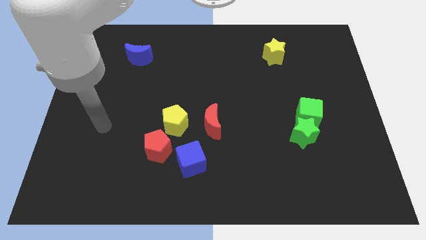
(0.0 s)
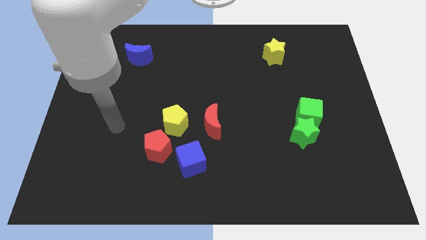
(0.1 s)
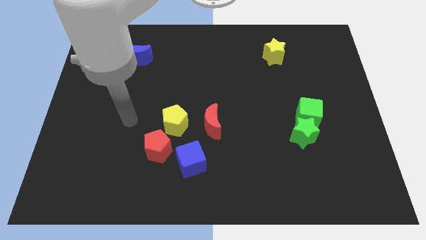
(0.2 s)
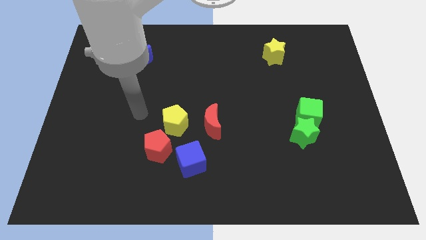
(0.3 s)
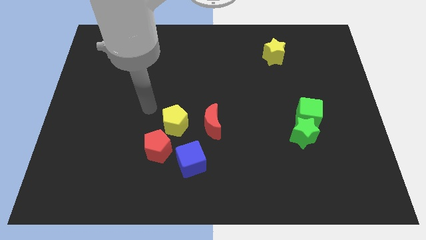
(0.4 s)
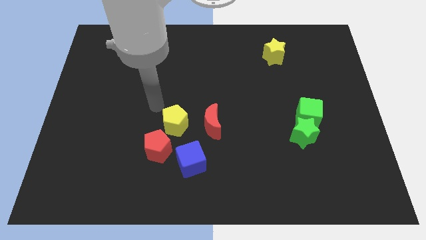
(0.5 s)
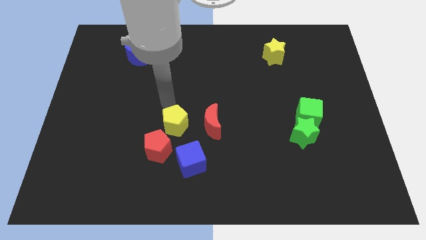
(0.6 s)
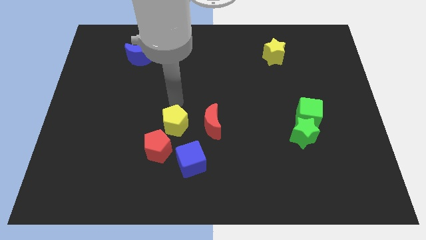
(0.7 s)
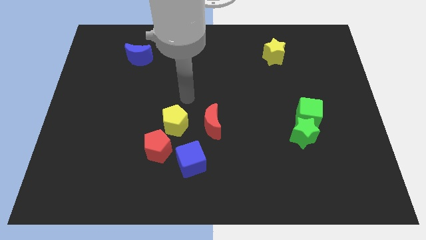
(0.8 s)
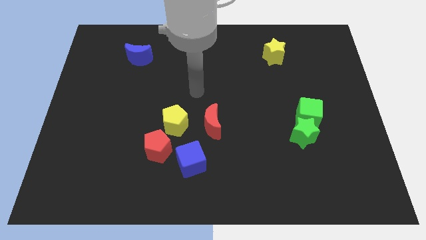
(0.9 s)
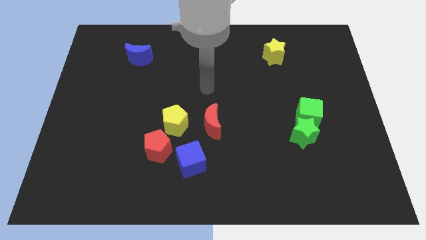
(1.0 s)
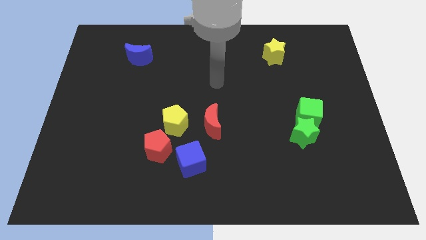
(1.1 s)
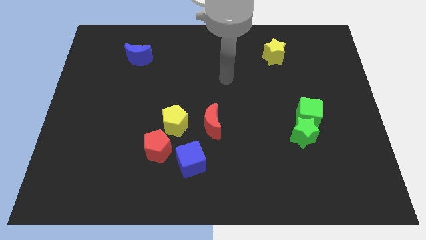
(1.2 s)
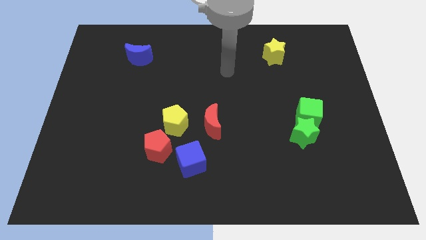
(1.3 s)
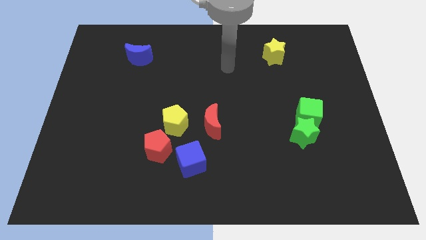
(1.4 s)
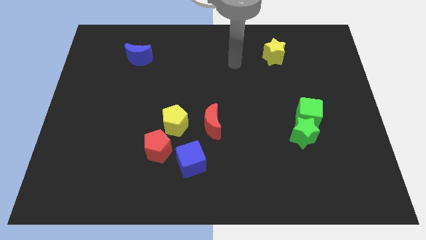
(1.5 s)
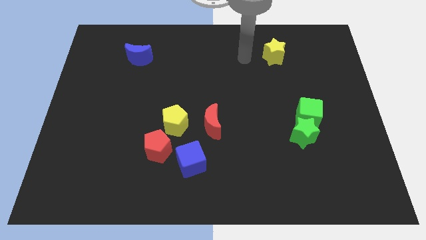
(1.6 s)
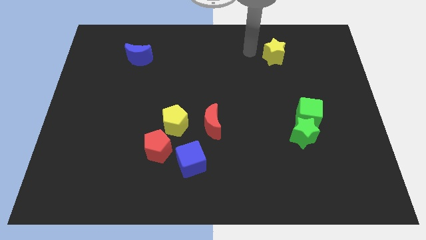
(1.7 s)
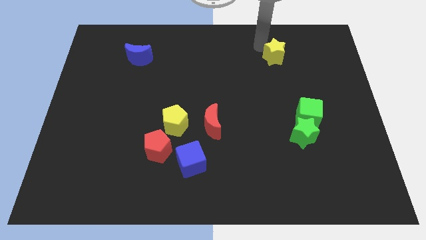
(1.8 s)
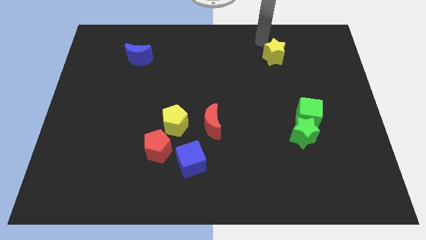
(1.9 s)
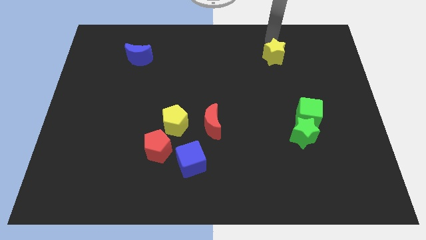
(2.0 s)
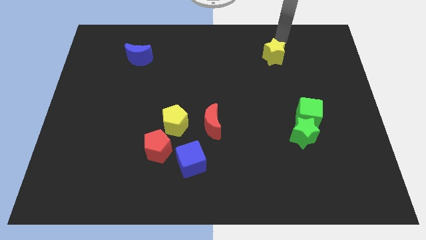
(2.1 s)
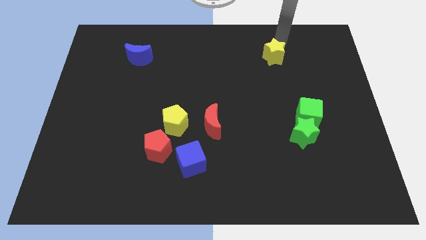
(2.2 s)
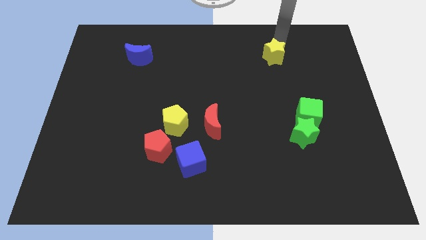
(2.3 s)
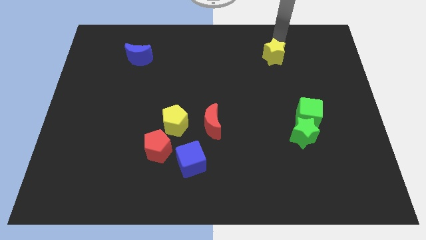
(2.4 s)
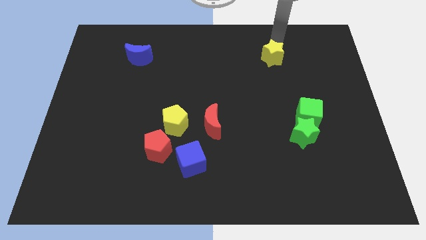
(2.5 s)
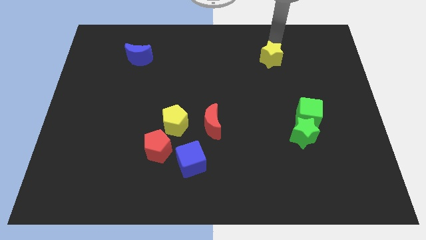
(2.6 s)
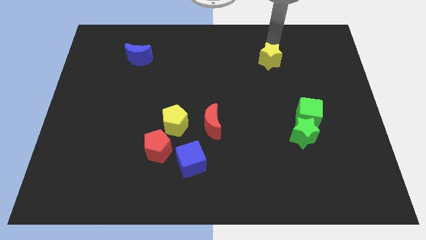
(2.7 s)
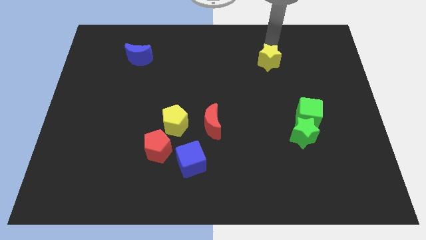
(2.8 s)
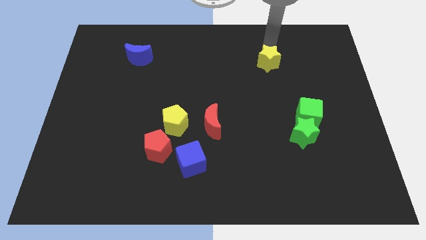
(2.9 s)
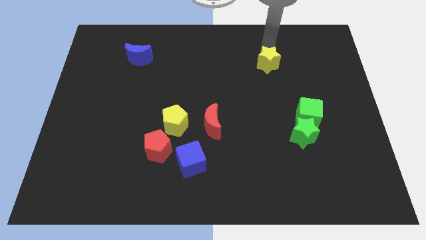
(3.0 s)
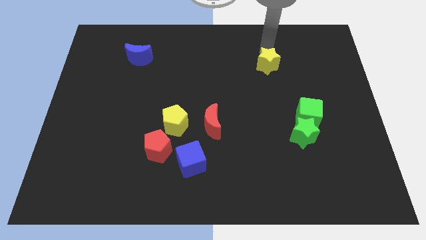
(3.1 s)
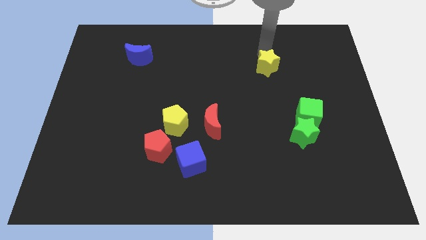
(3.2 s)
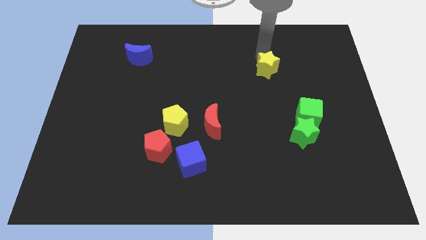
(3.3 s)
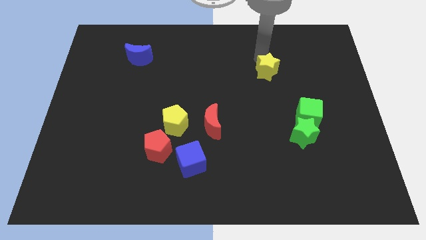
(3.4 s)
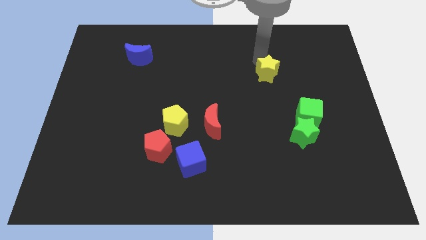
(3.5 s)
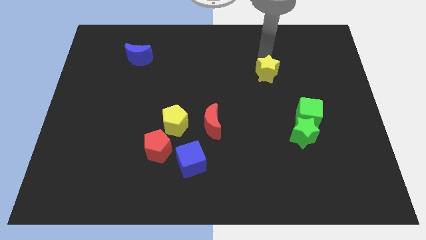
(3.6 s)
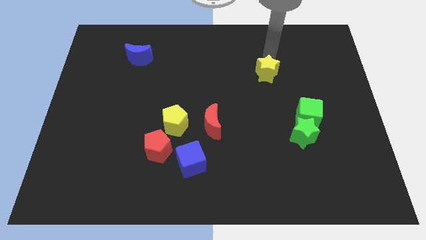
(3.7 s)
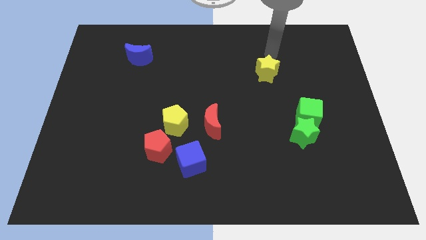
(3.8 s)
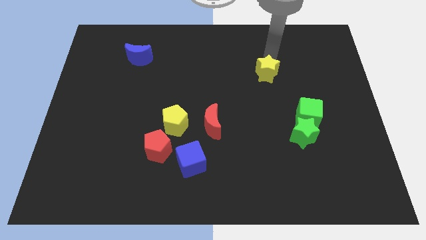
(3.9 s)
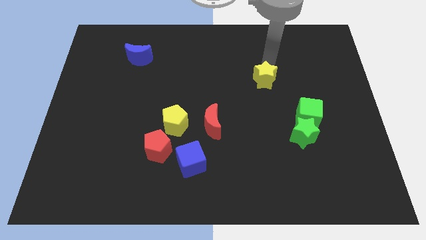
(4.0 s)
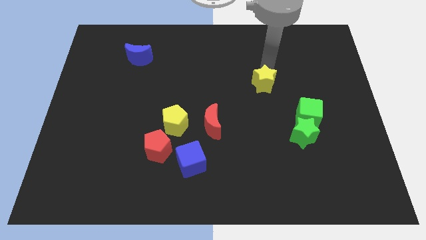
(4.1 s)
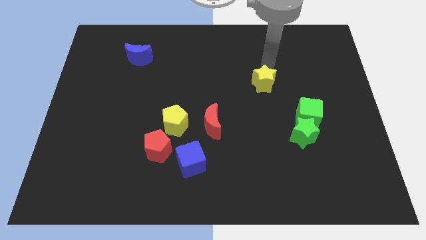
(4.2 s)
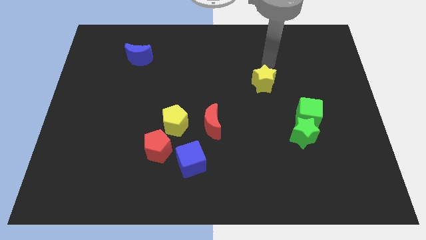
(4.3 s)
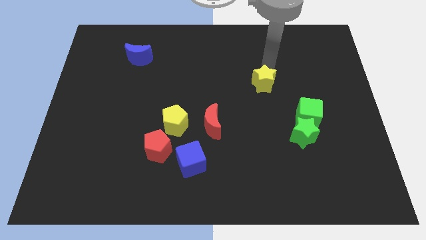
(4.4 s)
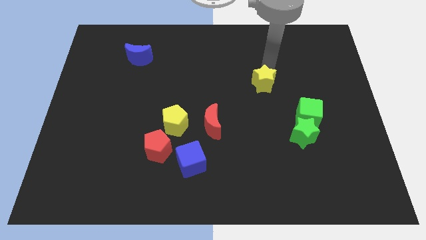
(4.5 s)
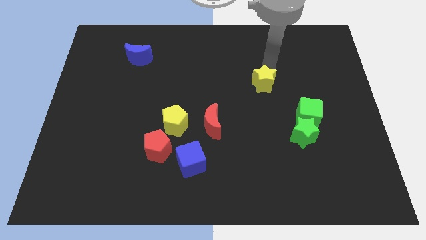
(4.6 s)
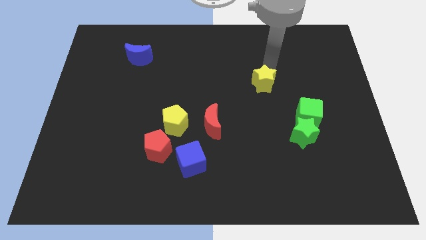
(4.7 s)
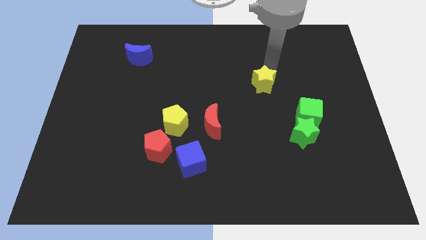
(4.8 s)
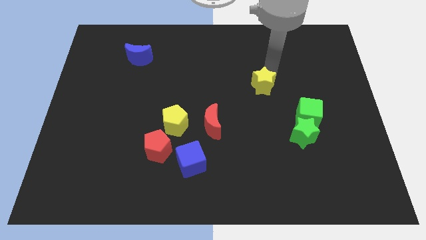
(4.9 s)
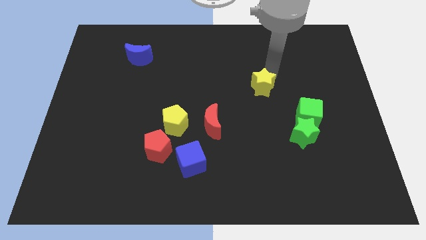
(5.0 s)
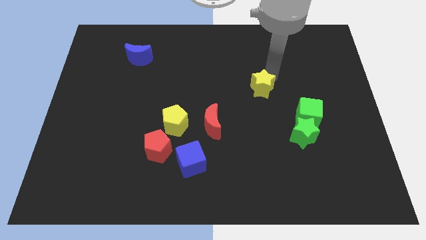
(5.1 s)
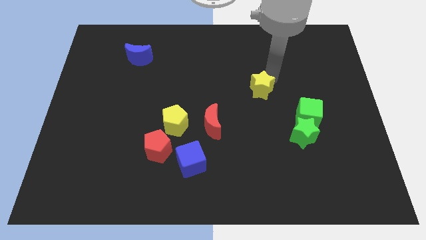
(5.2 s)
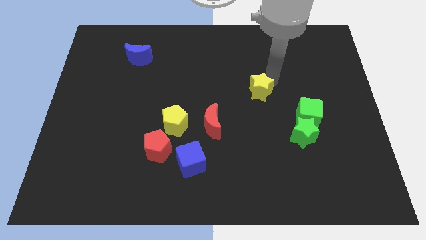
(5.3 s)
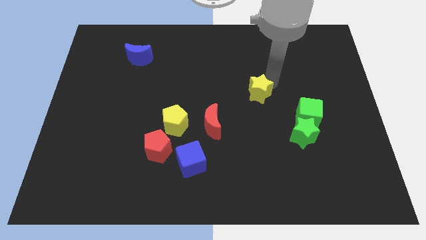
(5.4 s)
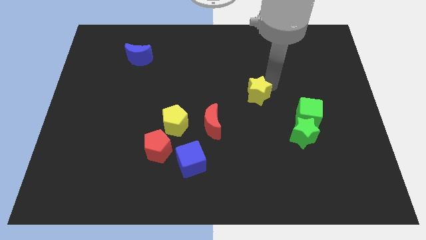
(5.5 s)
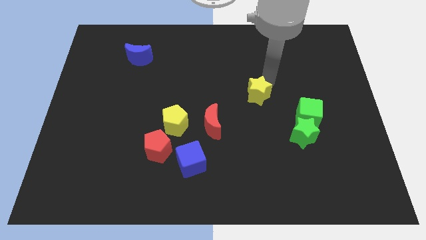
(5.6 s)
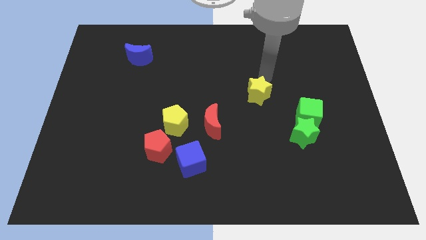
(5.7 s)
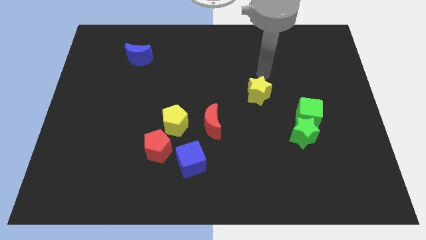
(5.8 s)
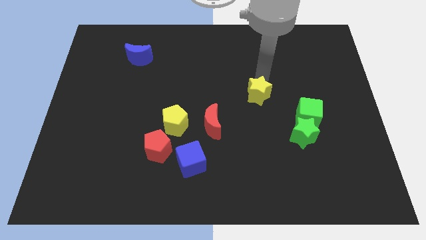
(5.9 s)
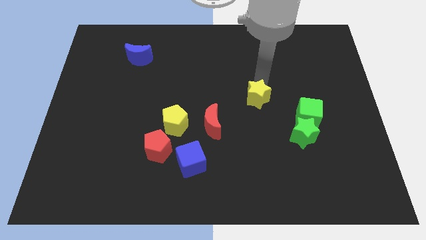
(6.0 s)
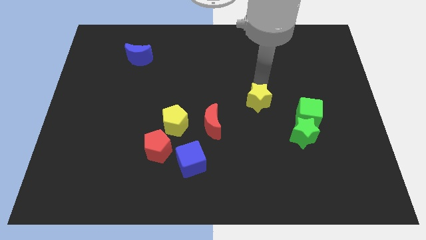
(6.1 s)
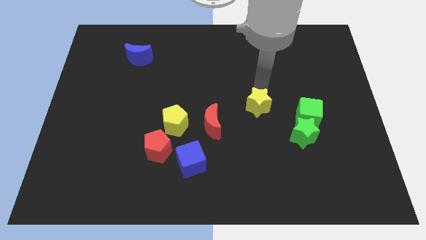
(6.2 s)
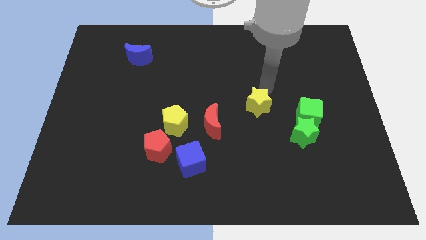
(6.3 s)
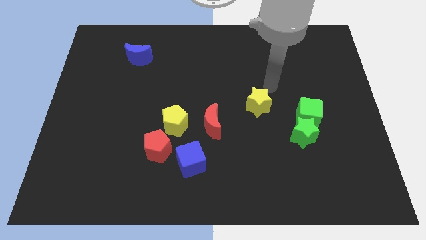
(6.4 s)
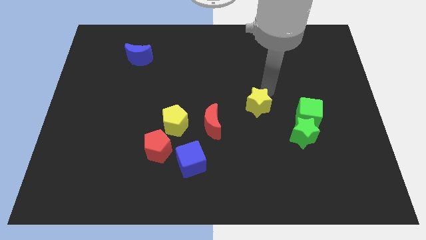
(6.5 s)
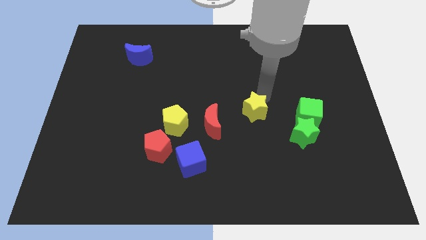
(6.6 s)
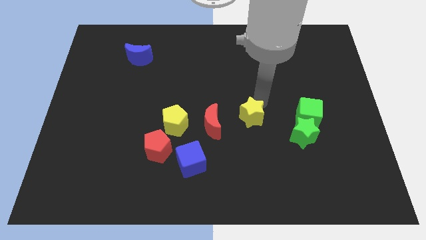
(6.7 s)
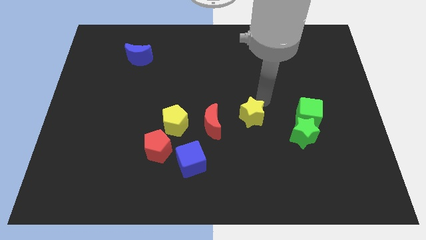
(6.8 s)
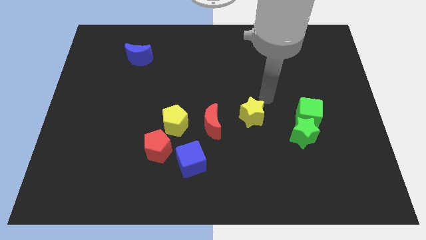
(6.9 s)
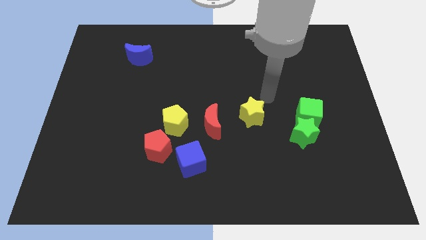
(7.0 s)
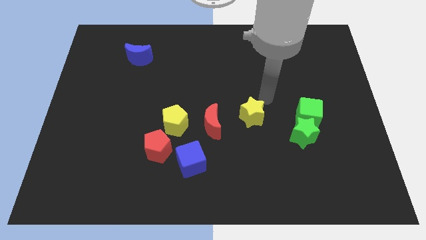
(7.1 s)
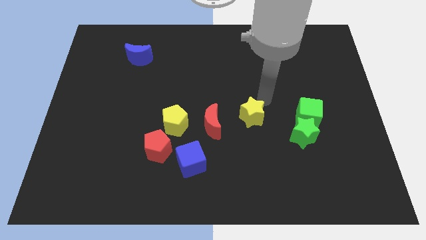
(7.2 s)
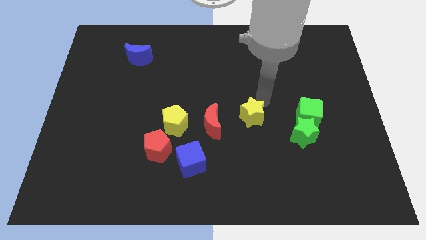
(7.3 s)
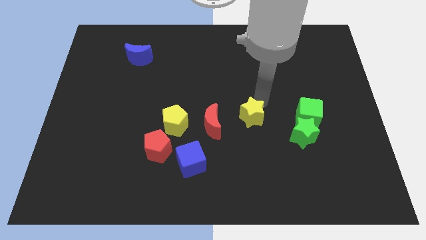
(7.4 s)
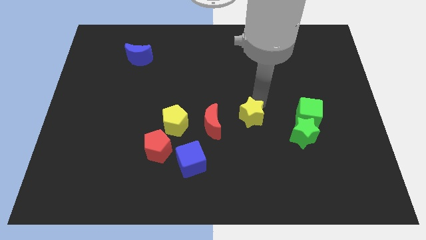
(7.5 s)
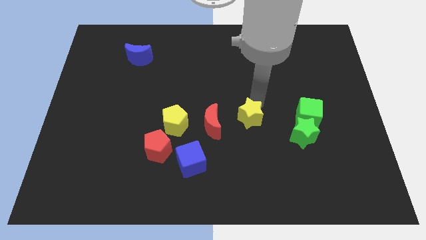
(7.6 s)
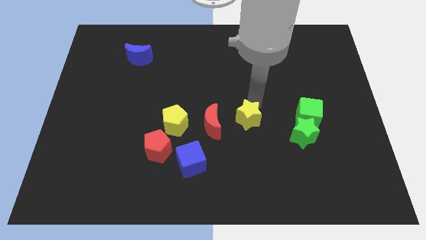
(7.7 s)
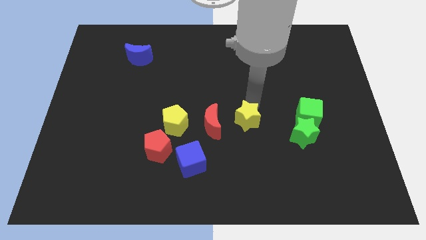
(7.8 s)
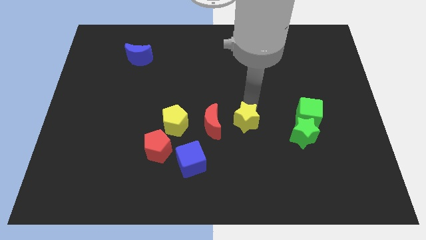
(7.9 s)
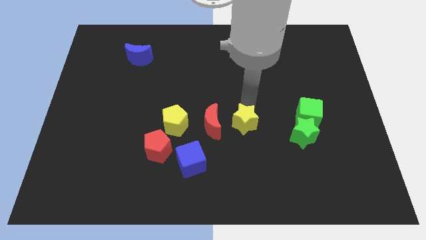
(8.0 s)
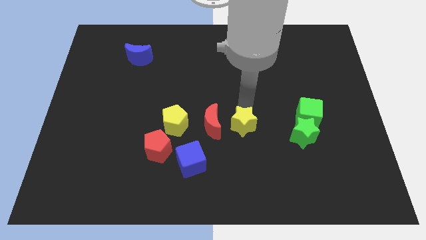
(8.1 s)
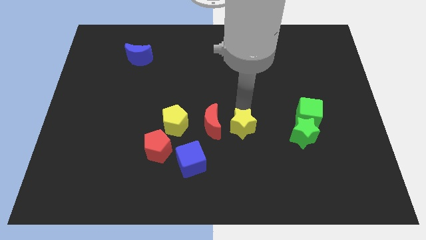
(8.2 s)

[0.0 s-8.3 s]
move the yellow star to the bottom right of the red moon
